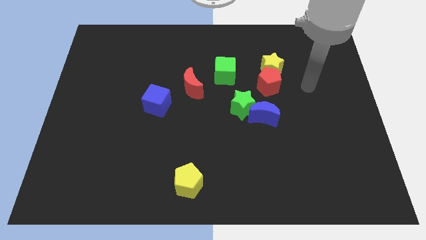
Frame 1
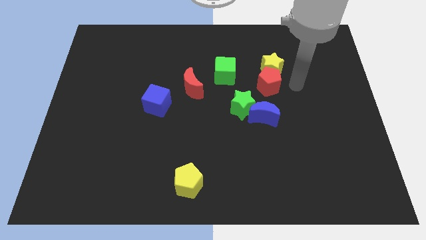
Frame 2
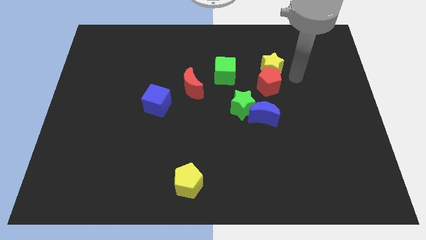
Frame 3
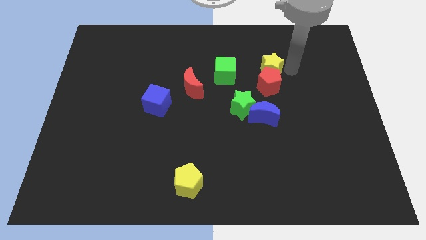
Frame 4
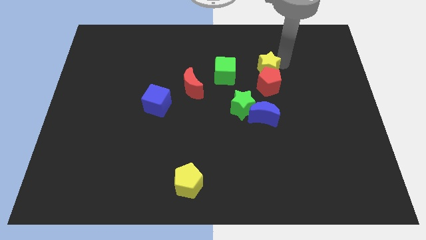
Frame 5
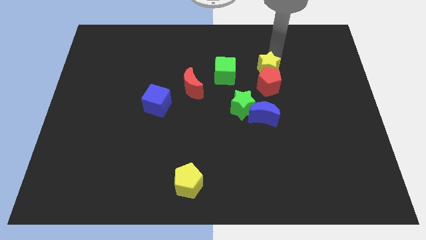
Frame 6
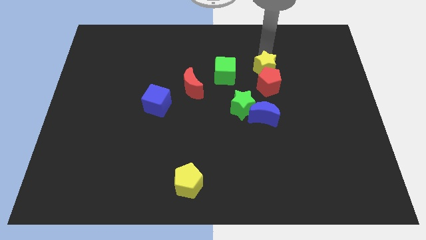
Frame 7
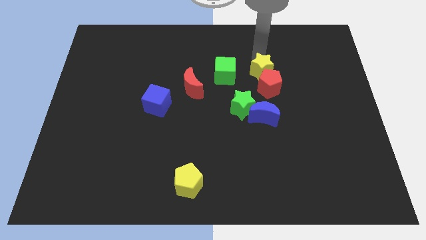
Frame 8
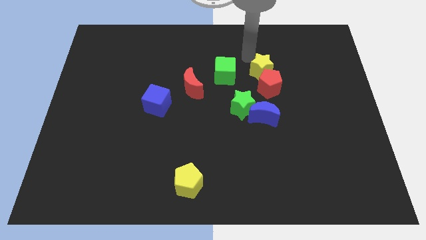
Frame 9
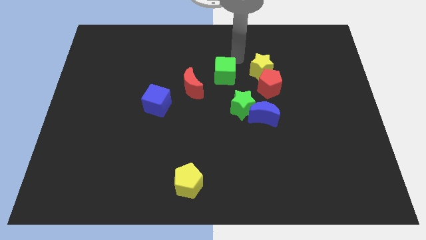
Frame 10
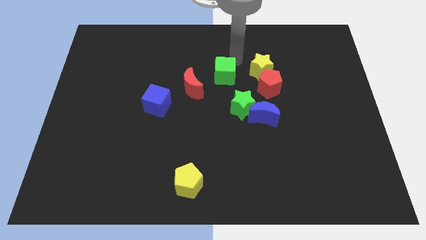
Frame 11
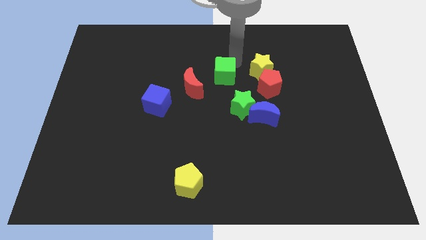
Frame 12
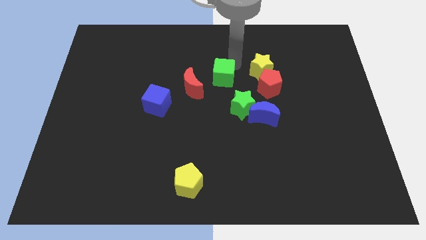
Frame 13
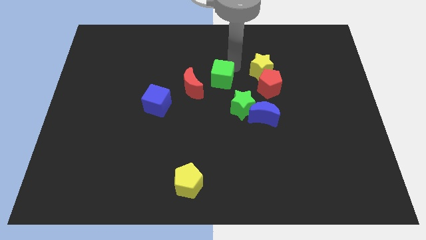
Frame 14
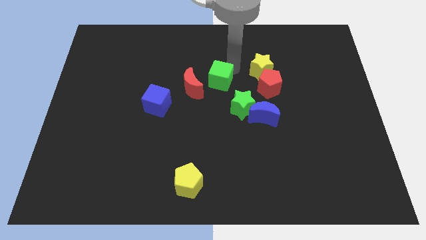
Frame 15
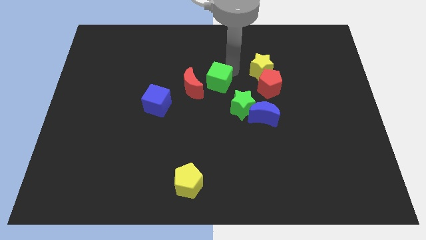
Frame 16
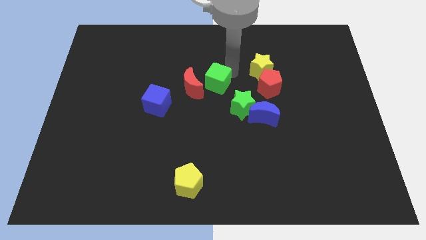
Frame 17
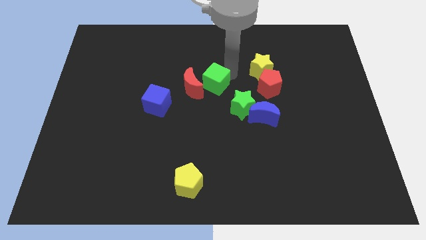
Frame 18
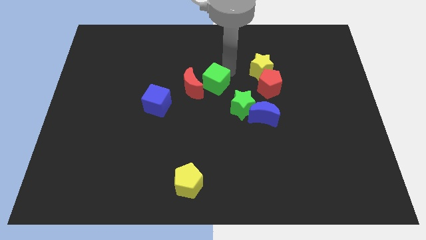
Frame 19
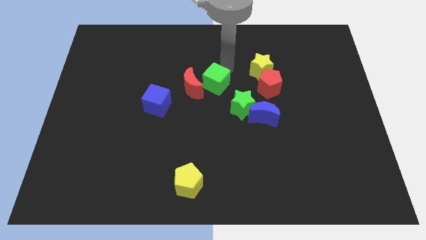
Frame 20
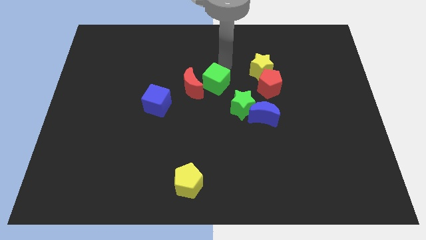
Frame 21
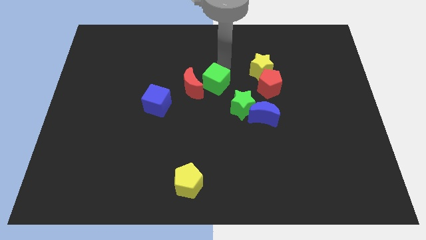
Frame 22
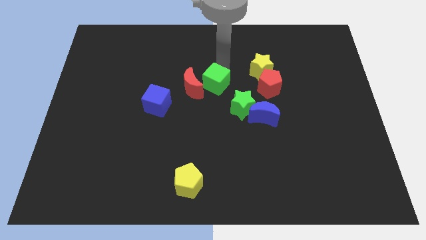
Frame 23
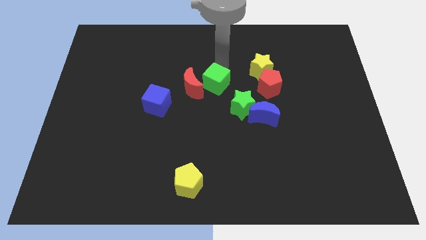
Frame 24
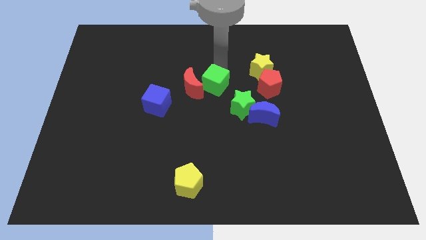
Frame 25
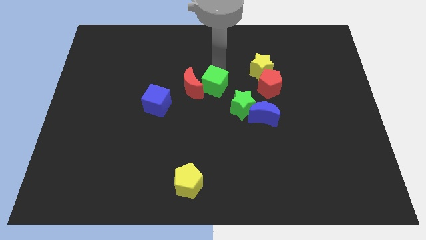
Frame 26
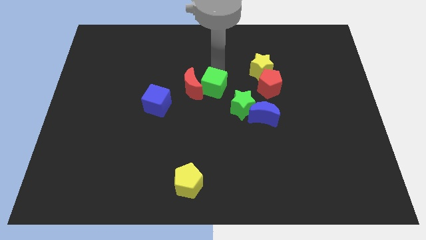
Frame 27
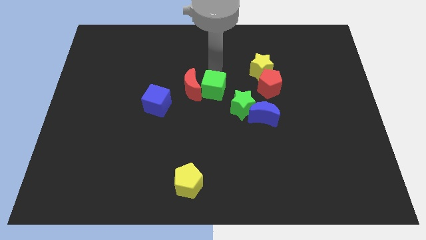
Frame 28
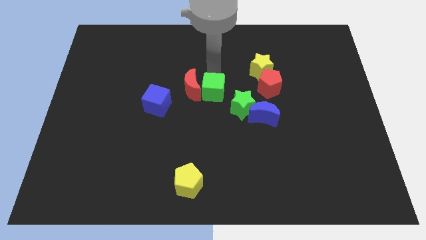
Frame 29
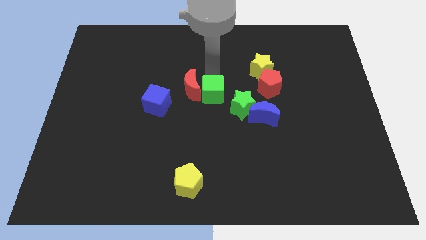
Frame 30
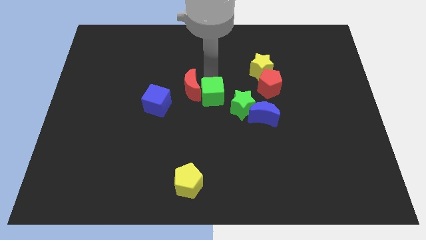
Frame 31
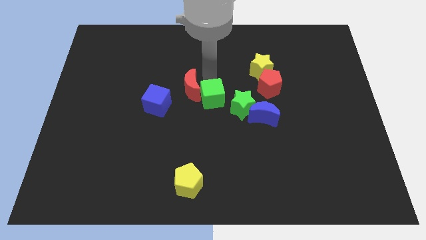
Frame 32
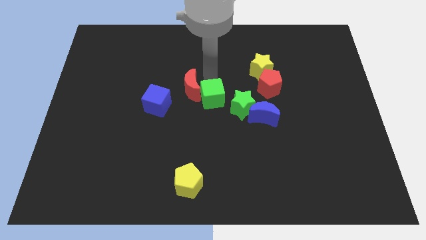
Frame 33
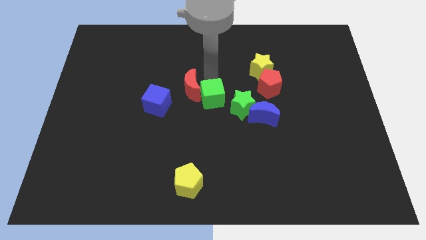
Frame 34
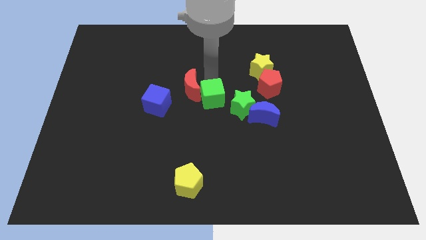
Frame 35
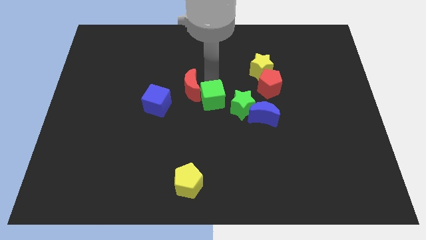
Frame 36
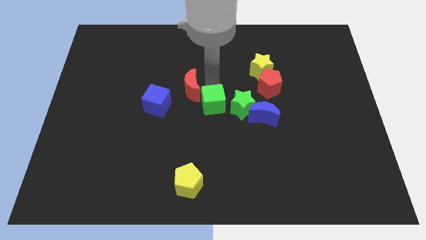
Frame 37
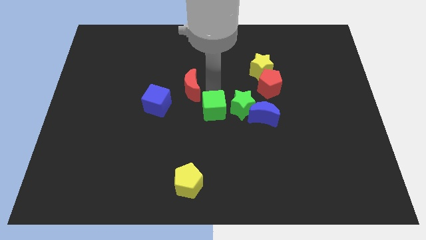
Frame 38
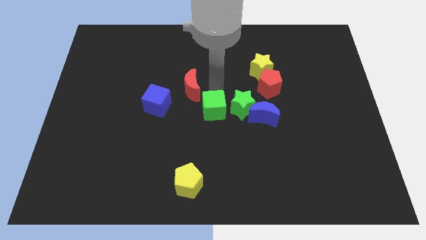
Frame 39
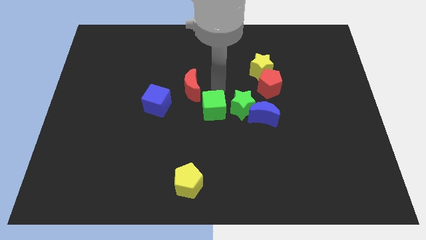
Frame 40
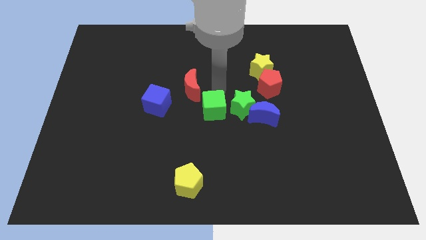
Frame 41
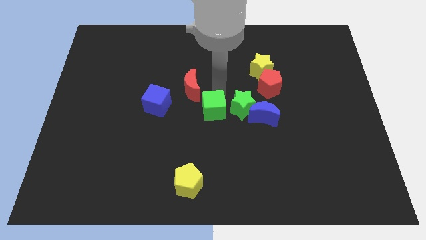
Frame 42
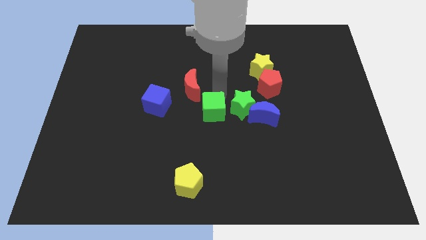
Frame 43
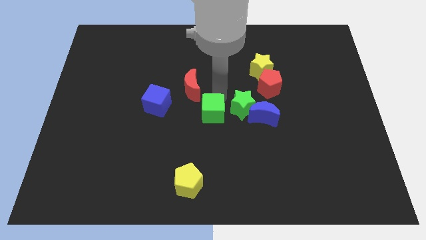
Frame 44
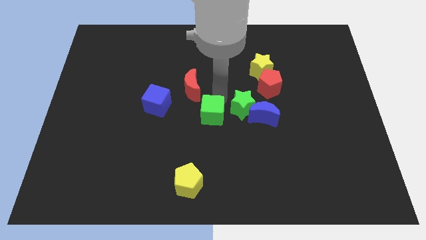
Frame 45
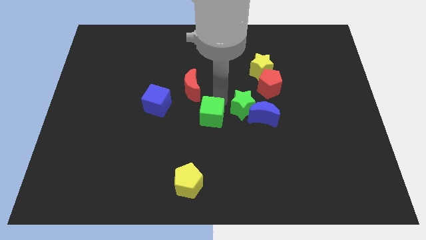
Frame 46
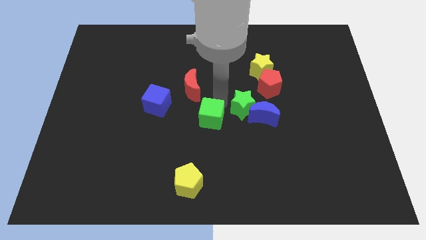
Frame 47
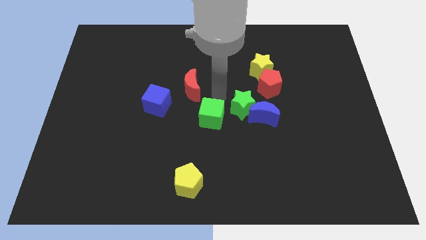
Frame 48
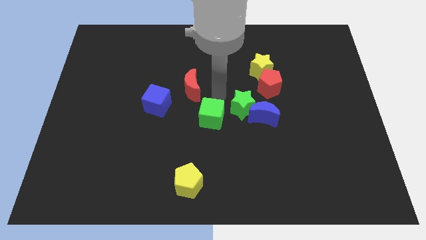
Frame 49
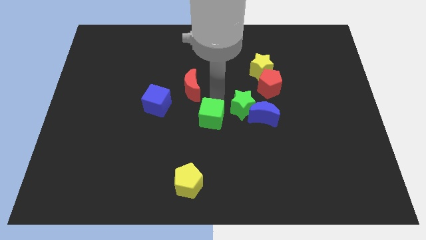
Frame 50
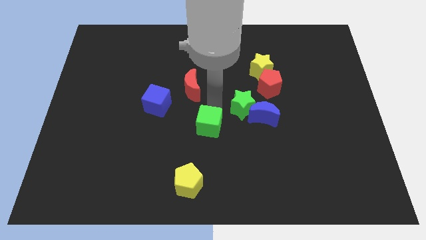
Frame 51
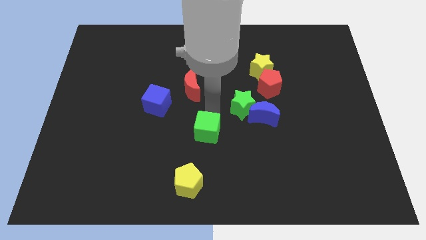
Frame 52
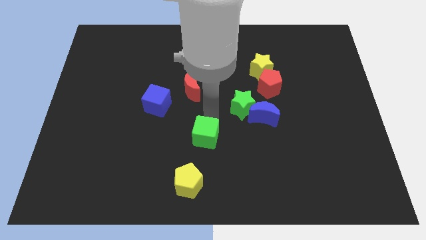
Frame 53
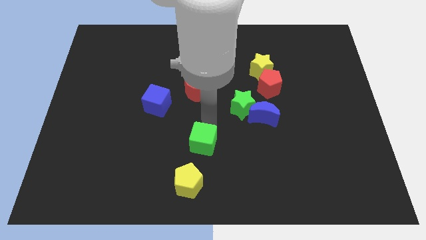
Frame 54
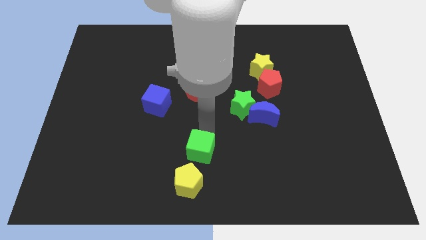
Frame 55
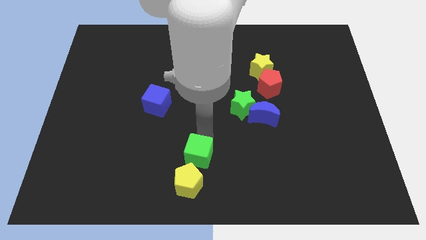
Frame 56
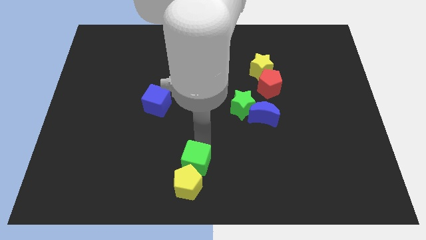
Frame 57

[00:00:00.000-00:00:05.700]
slide the green cube towards the yellow pentagon

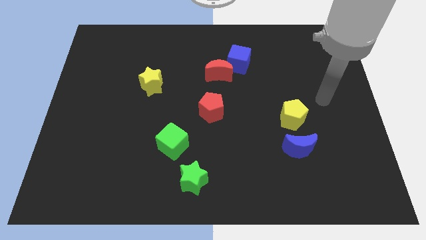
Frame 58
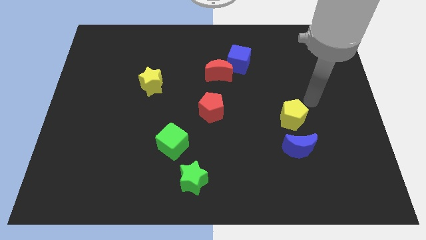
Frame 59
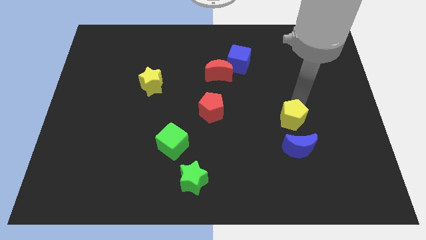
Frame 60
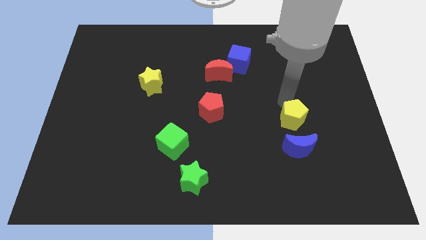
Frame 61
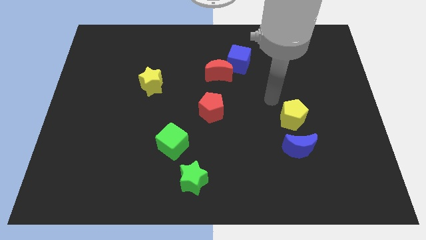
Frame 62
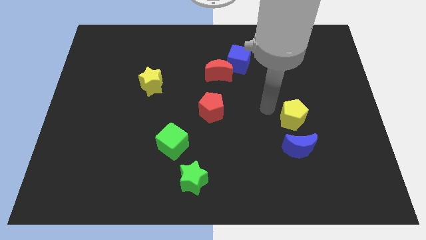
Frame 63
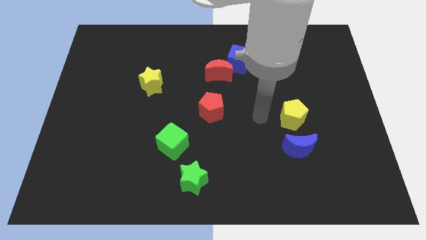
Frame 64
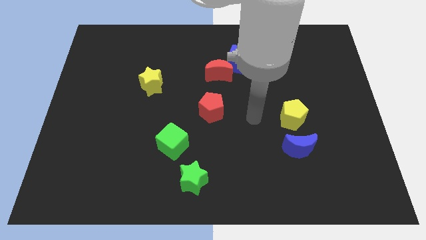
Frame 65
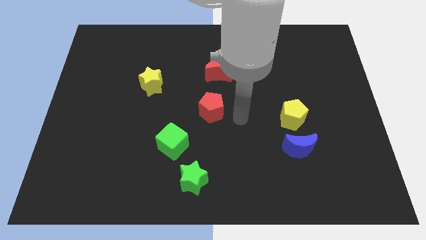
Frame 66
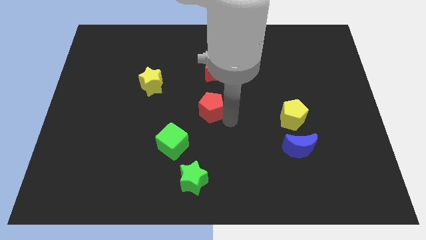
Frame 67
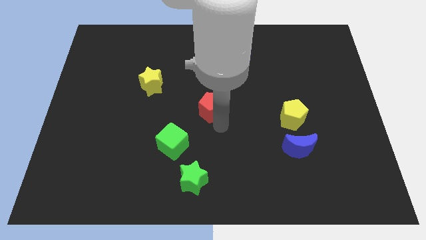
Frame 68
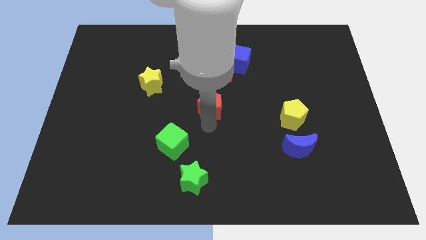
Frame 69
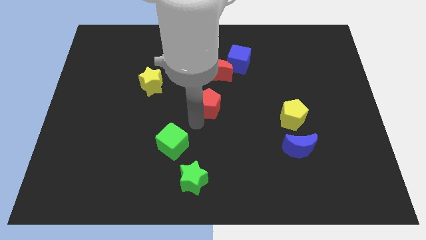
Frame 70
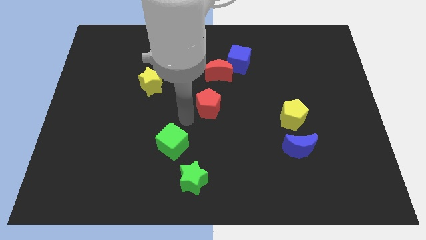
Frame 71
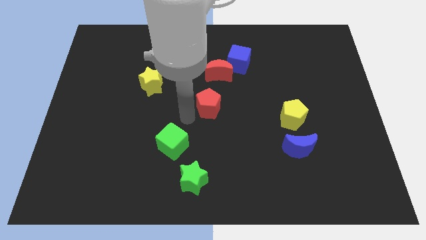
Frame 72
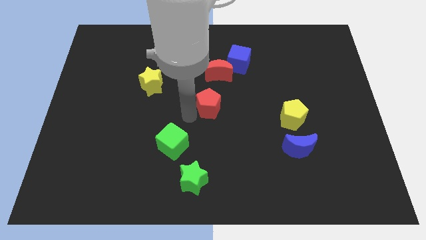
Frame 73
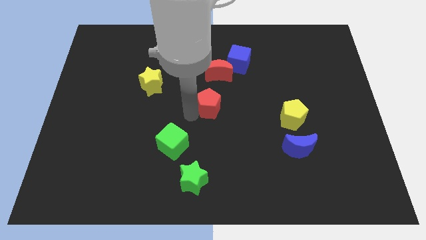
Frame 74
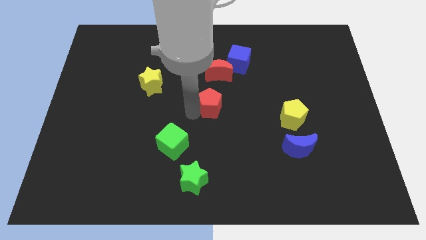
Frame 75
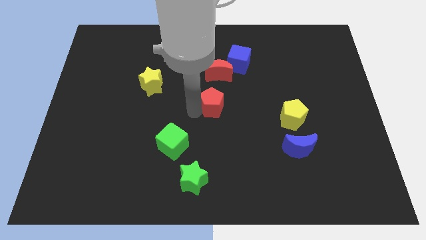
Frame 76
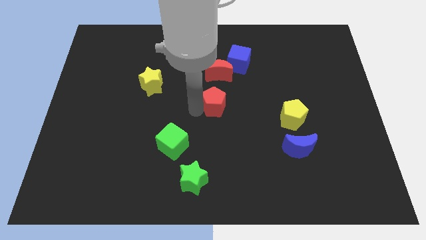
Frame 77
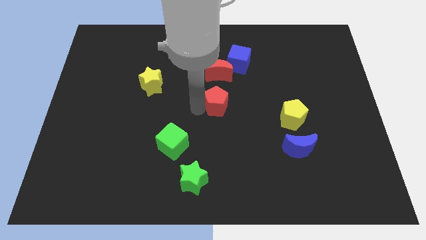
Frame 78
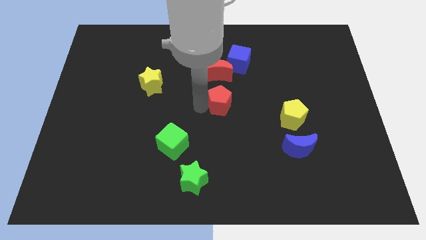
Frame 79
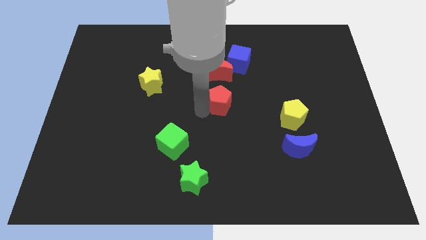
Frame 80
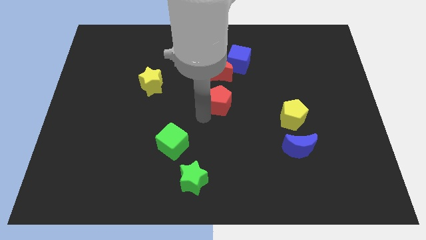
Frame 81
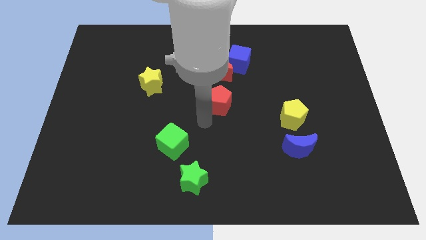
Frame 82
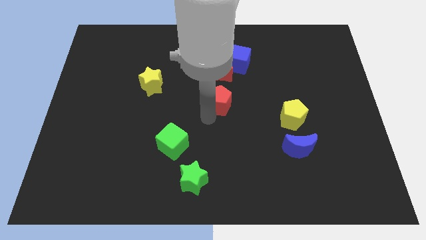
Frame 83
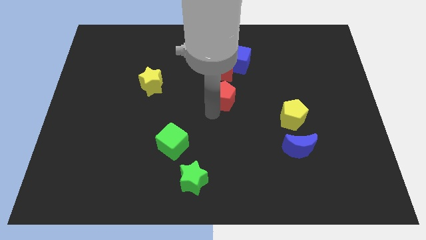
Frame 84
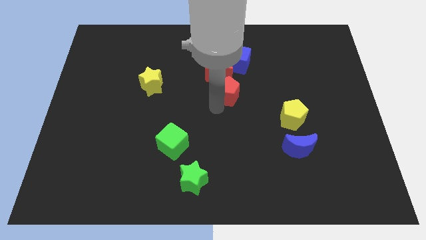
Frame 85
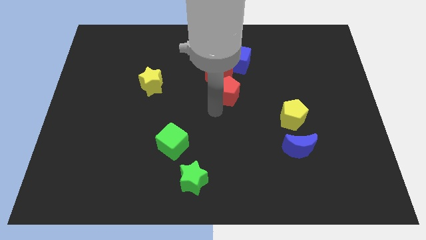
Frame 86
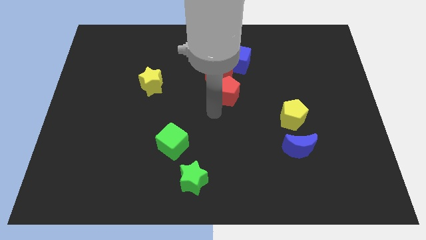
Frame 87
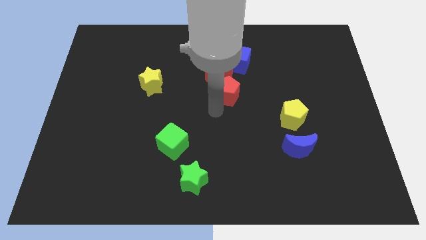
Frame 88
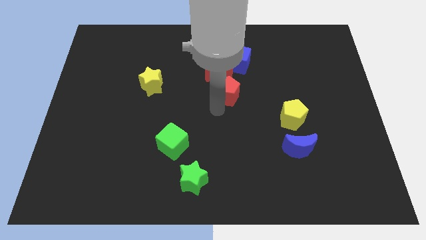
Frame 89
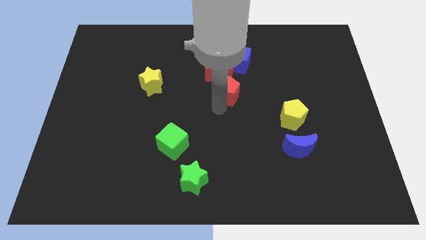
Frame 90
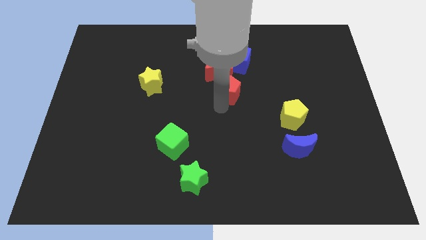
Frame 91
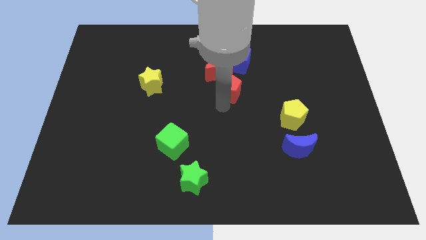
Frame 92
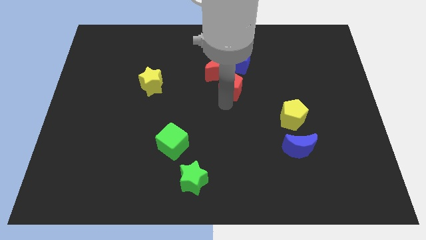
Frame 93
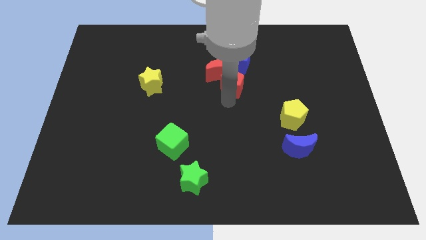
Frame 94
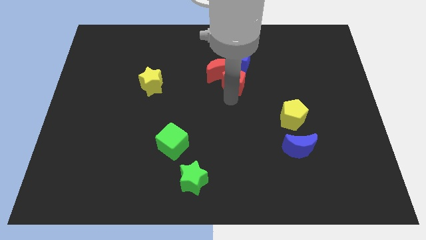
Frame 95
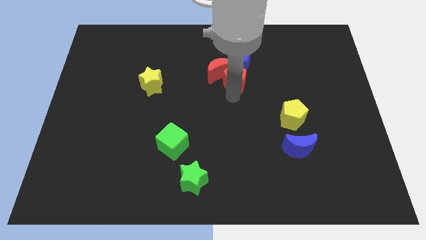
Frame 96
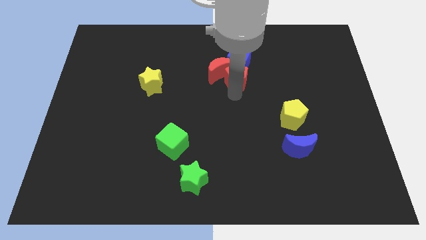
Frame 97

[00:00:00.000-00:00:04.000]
move the red pentagon towards the blue cube
